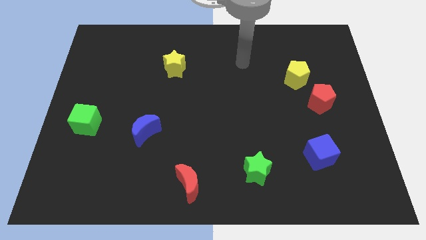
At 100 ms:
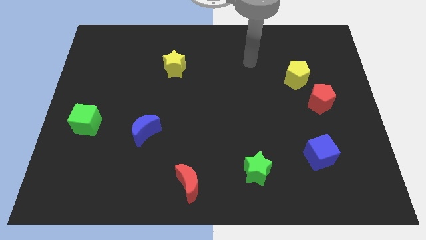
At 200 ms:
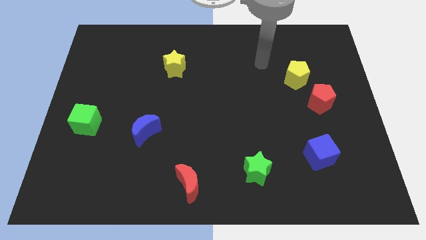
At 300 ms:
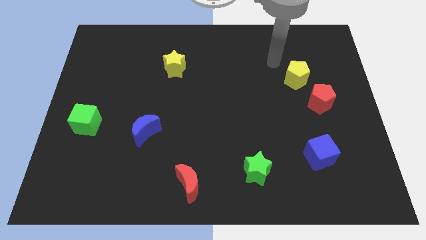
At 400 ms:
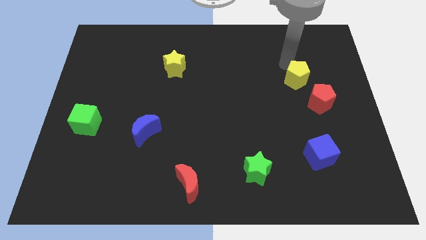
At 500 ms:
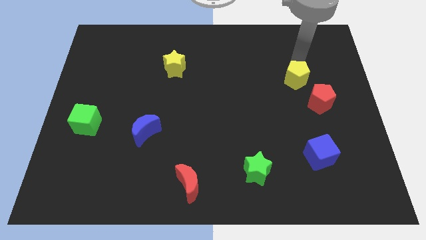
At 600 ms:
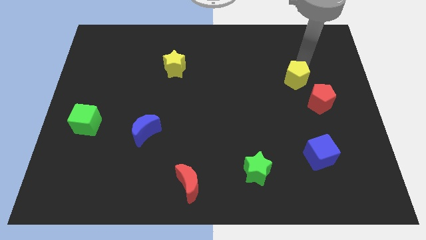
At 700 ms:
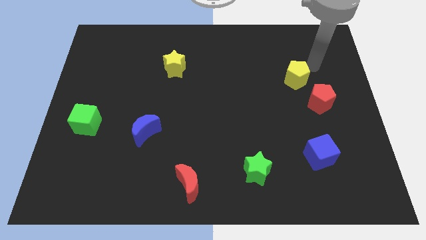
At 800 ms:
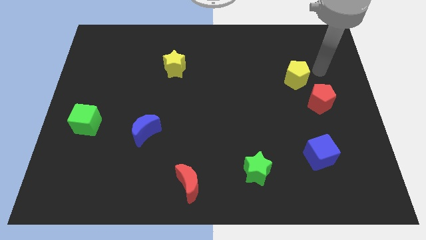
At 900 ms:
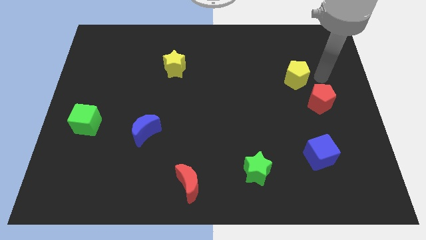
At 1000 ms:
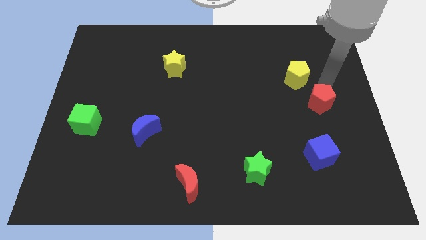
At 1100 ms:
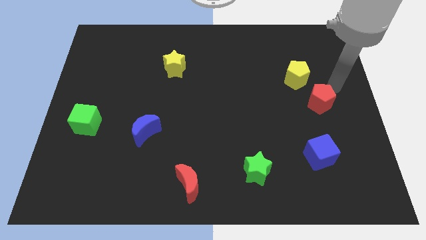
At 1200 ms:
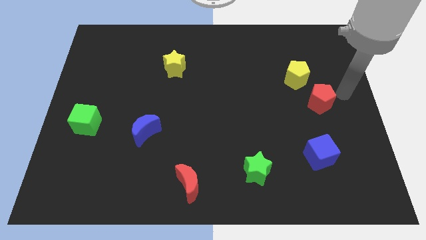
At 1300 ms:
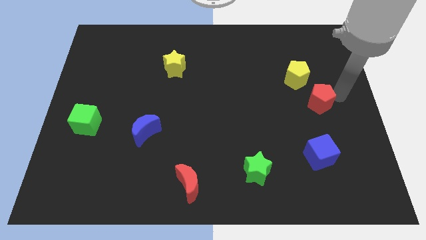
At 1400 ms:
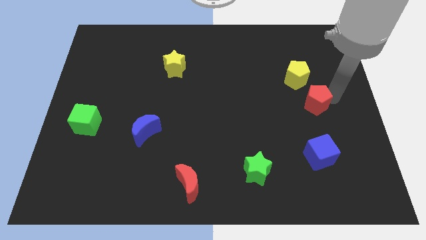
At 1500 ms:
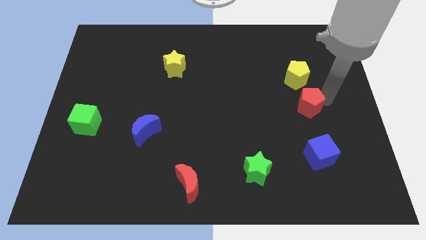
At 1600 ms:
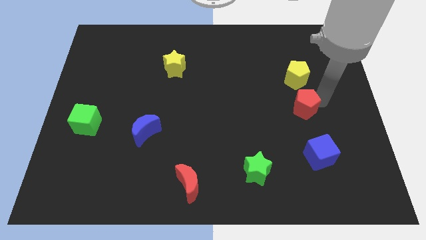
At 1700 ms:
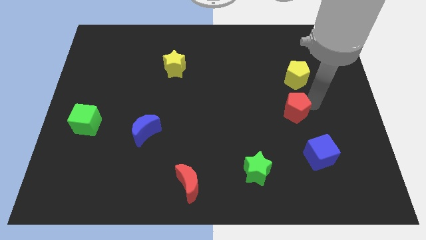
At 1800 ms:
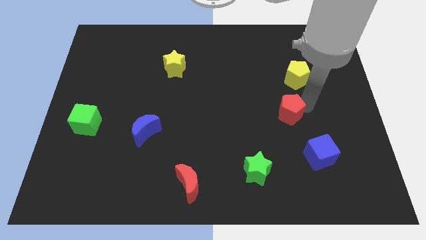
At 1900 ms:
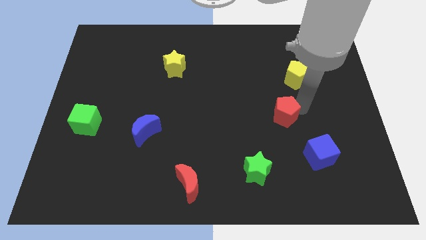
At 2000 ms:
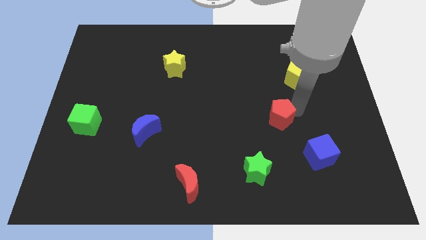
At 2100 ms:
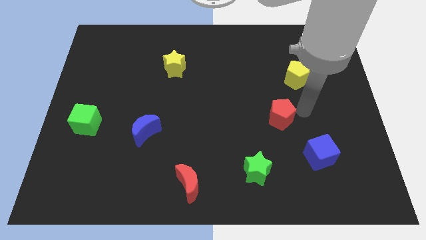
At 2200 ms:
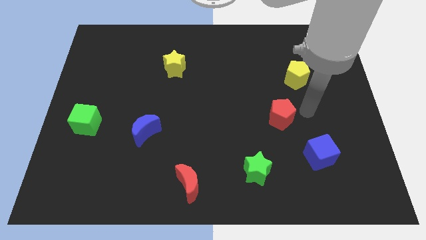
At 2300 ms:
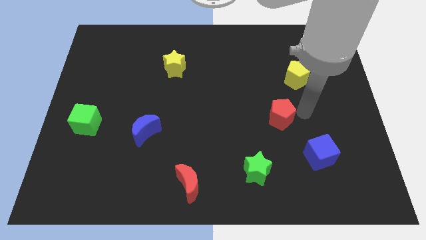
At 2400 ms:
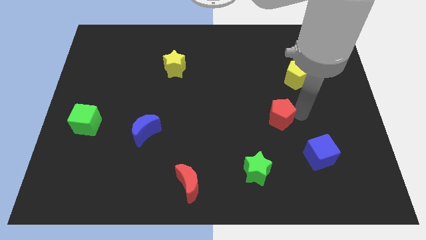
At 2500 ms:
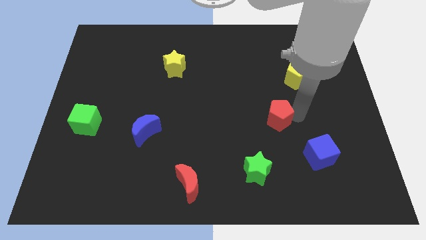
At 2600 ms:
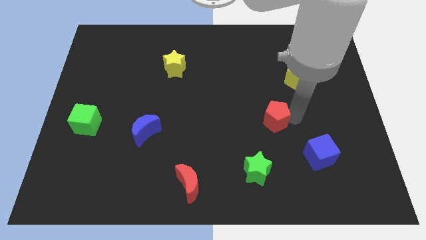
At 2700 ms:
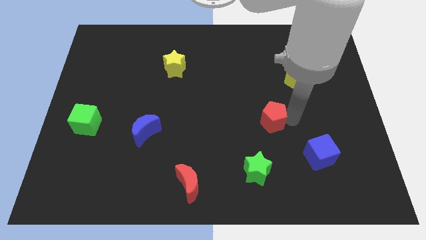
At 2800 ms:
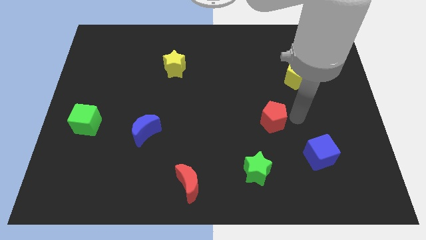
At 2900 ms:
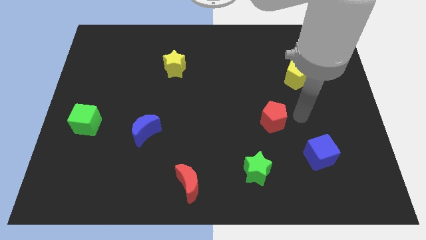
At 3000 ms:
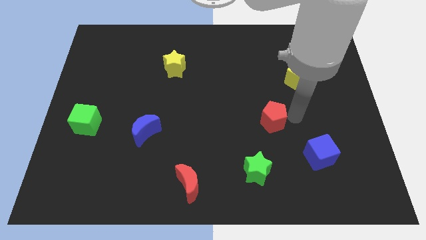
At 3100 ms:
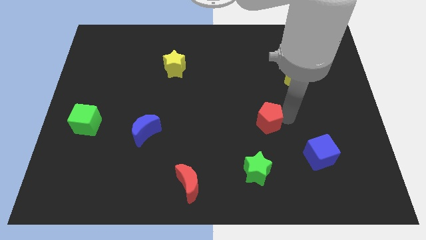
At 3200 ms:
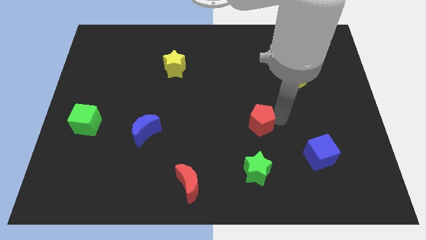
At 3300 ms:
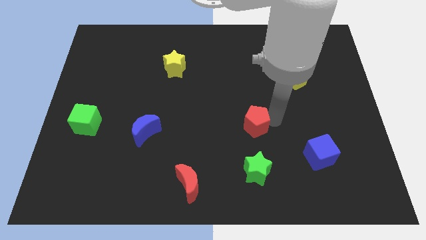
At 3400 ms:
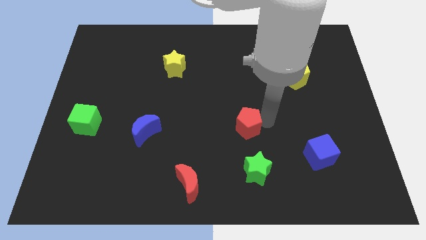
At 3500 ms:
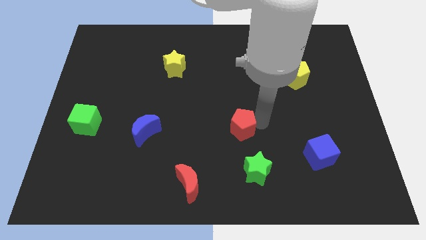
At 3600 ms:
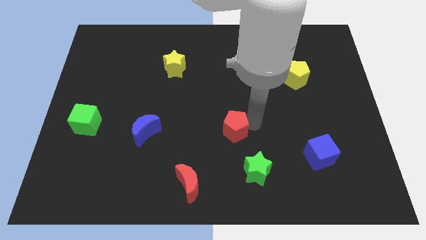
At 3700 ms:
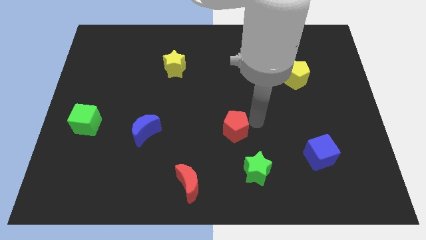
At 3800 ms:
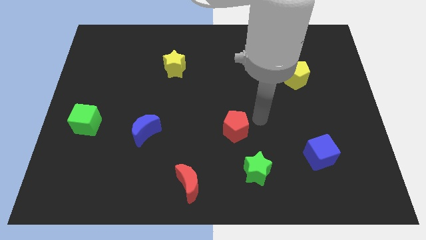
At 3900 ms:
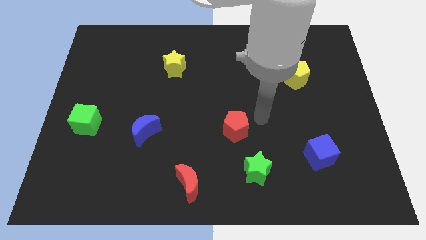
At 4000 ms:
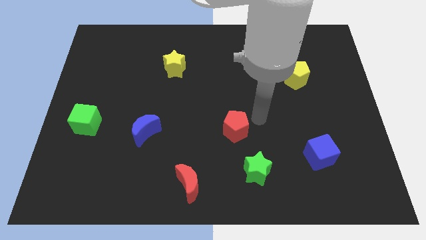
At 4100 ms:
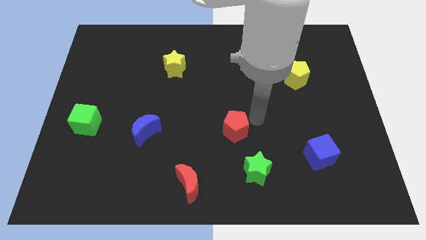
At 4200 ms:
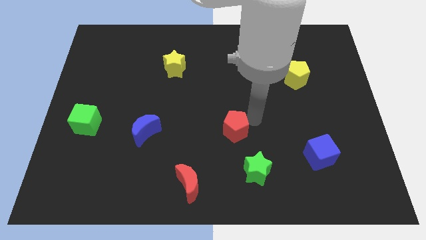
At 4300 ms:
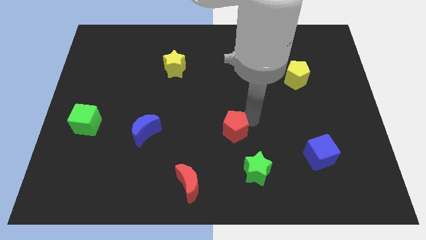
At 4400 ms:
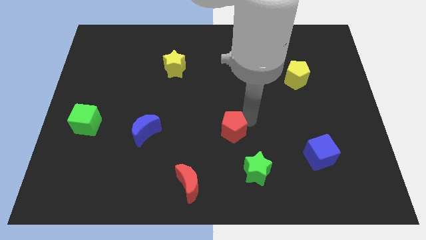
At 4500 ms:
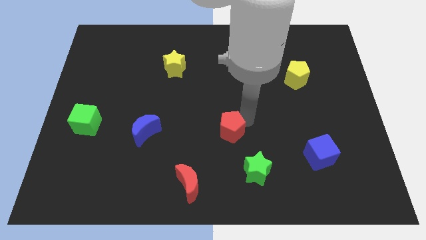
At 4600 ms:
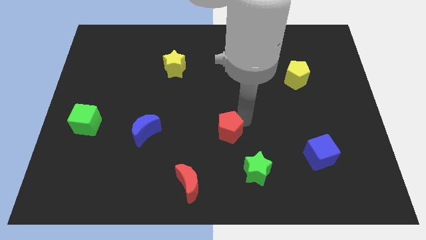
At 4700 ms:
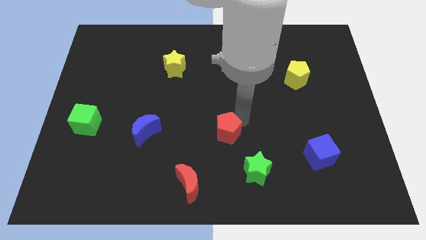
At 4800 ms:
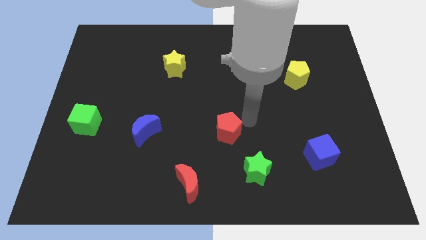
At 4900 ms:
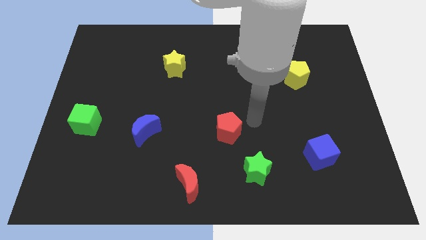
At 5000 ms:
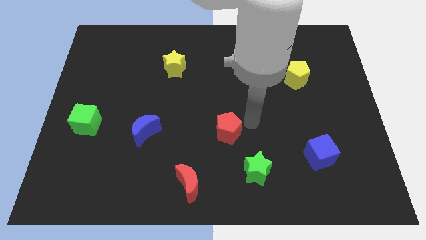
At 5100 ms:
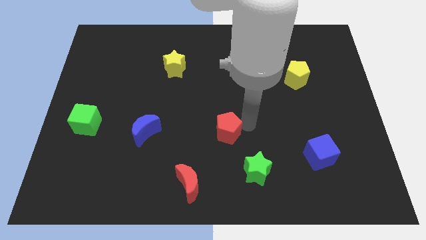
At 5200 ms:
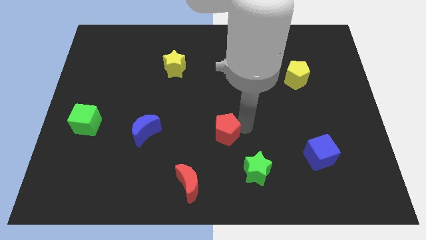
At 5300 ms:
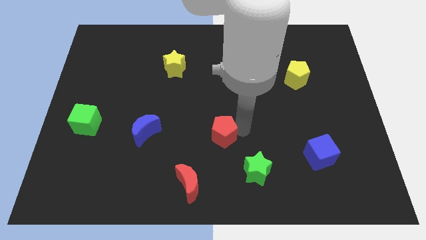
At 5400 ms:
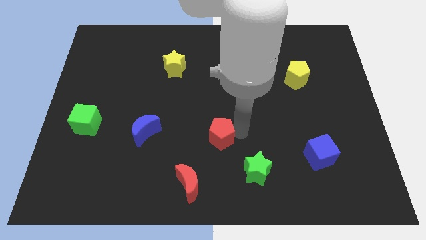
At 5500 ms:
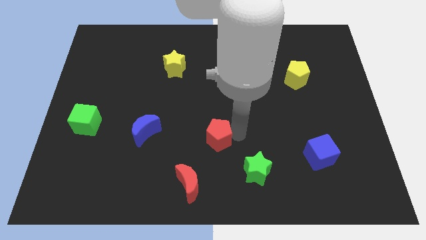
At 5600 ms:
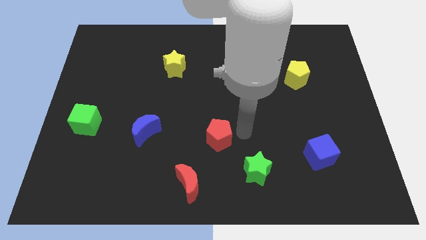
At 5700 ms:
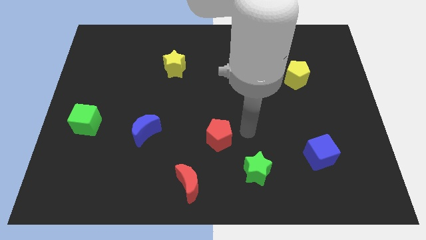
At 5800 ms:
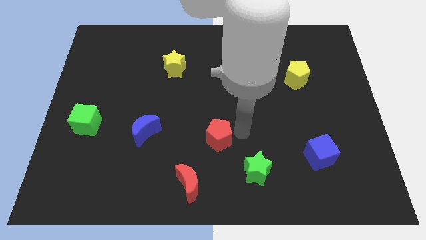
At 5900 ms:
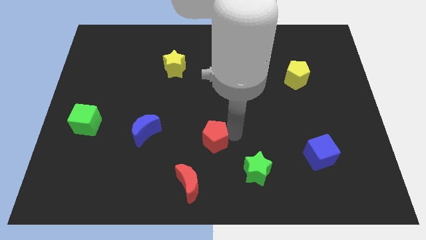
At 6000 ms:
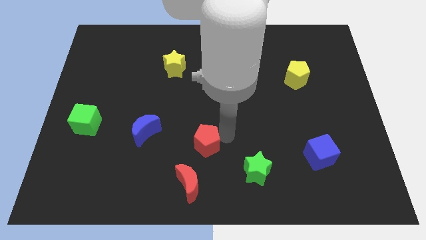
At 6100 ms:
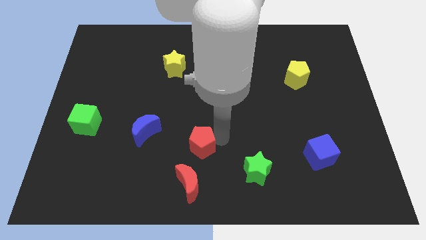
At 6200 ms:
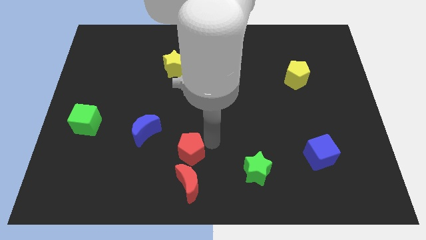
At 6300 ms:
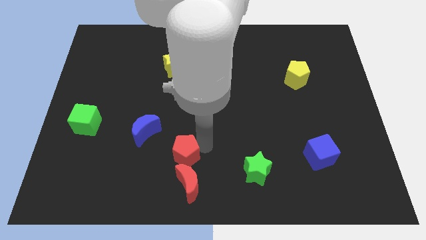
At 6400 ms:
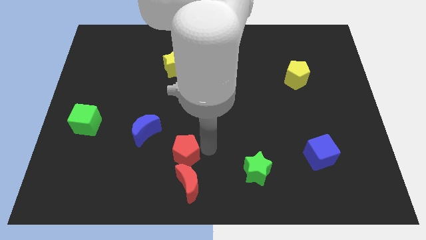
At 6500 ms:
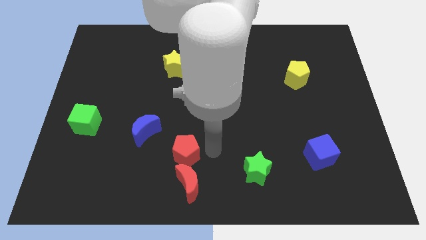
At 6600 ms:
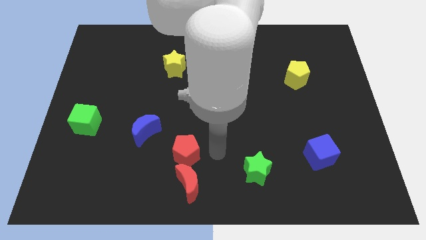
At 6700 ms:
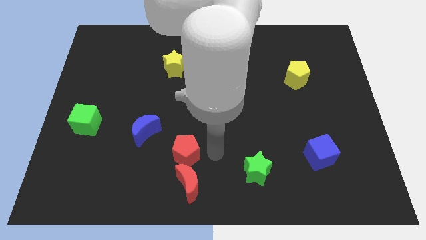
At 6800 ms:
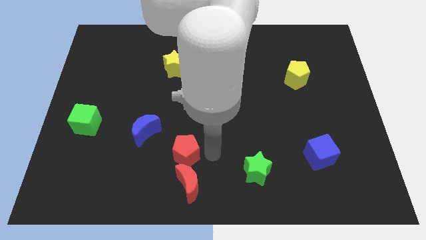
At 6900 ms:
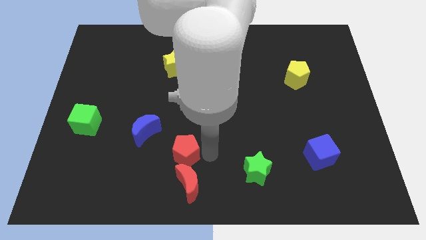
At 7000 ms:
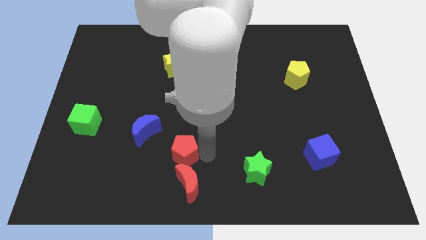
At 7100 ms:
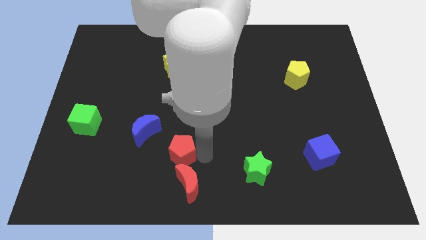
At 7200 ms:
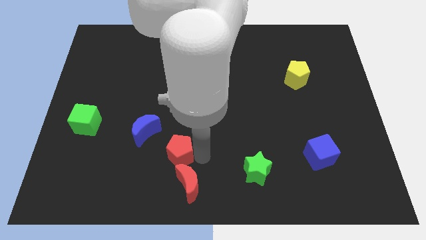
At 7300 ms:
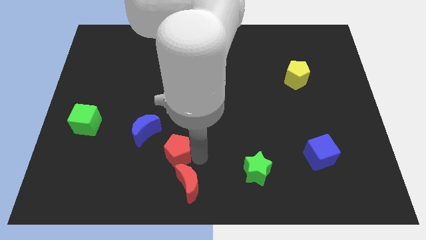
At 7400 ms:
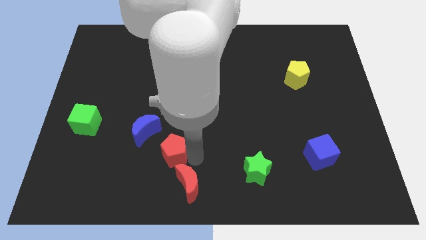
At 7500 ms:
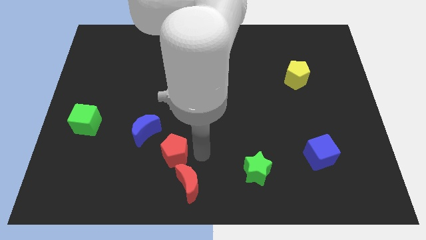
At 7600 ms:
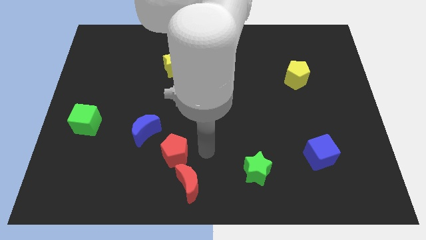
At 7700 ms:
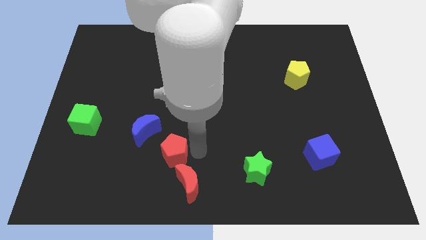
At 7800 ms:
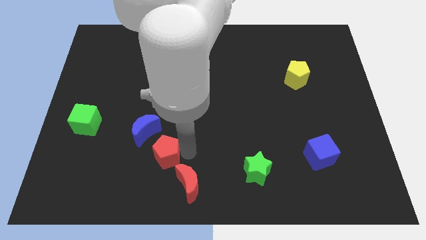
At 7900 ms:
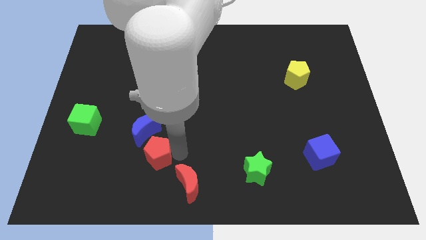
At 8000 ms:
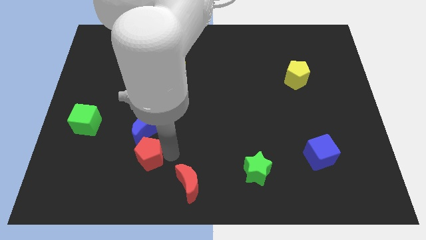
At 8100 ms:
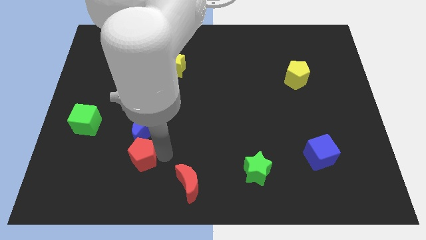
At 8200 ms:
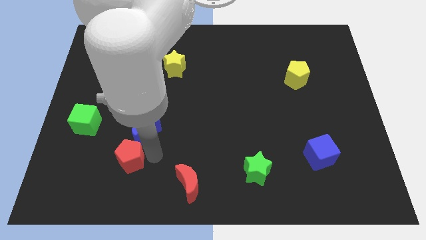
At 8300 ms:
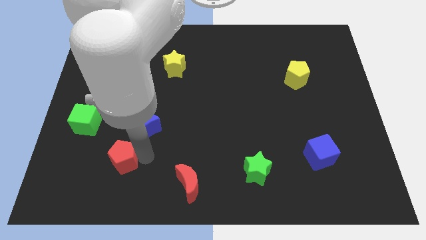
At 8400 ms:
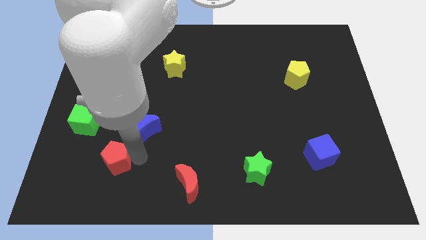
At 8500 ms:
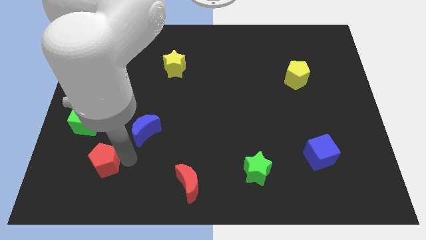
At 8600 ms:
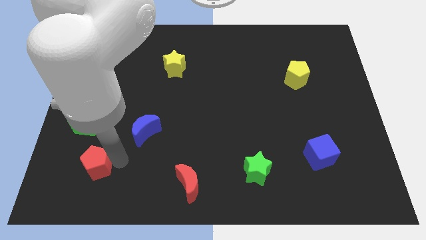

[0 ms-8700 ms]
move the red pentagon to the bottom of the green cube
